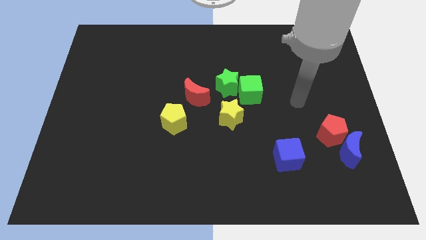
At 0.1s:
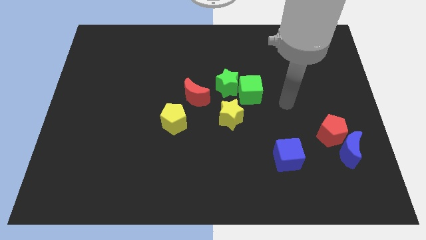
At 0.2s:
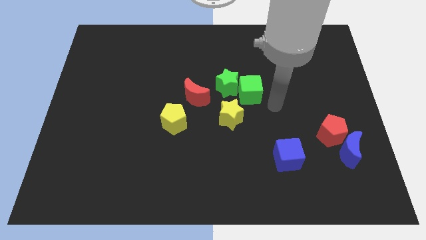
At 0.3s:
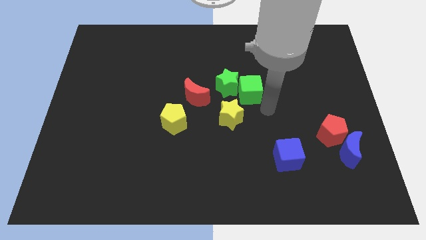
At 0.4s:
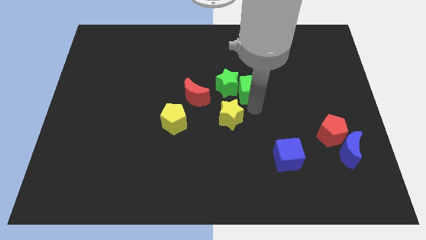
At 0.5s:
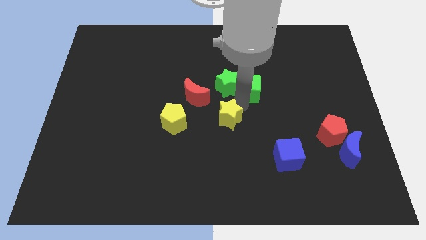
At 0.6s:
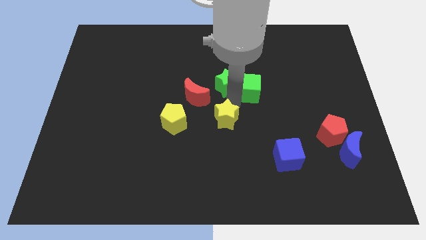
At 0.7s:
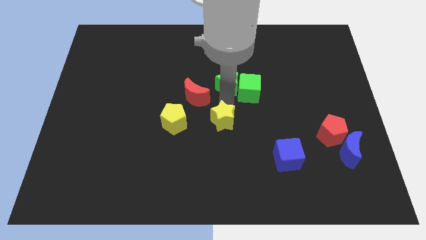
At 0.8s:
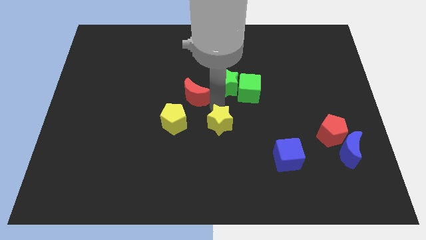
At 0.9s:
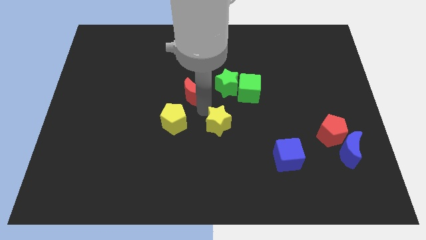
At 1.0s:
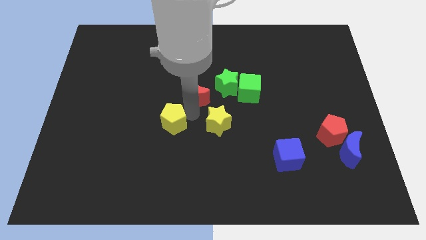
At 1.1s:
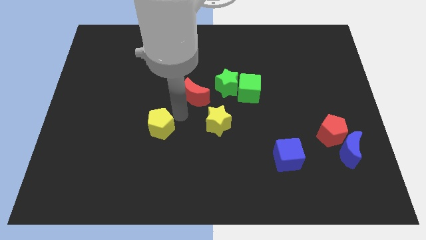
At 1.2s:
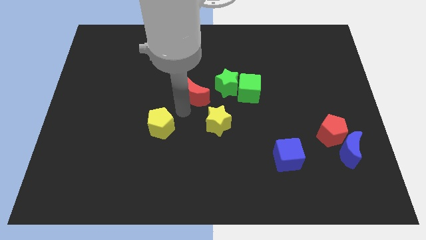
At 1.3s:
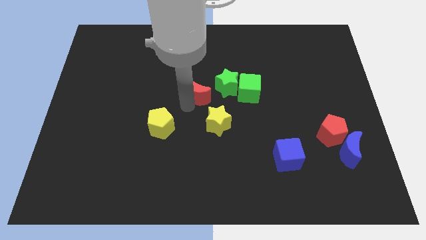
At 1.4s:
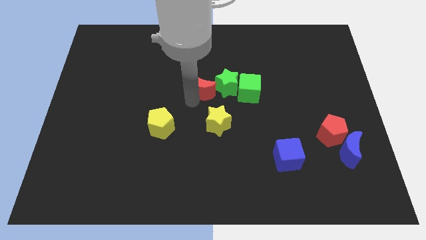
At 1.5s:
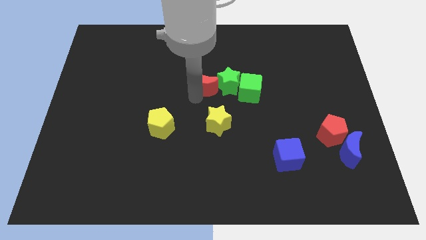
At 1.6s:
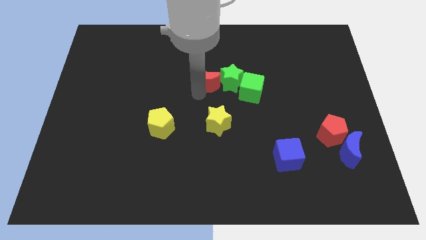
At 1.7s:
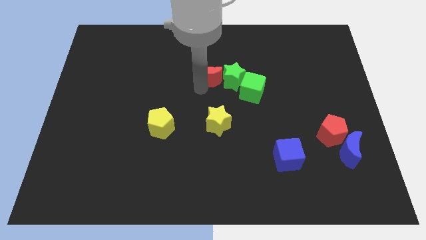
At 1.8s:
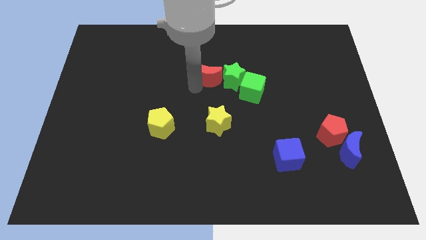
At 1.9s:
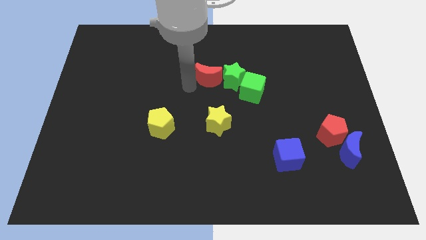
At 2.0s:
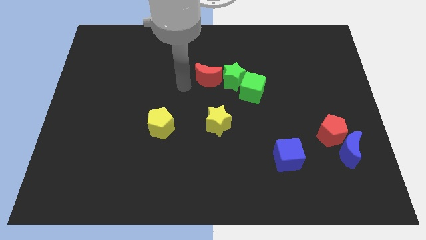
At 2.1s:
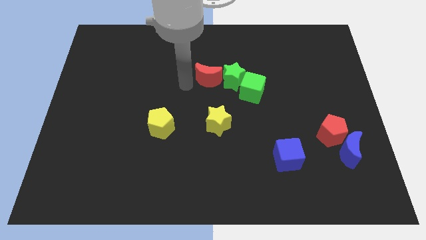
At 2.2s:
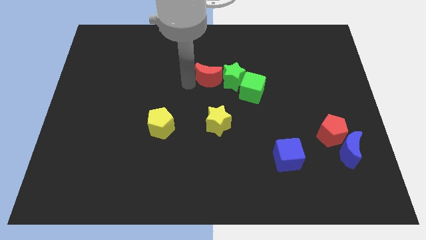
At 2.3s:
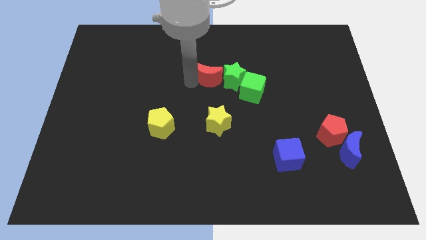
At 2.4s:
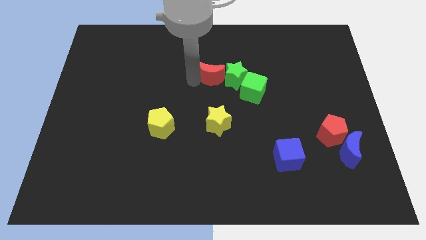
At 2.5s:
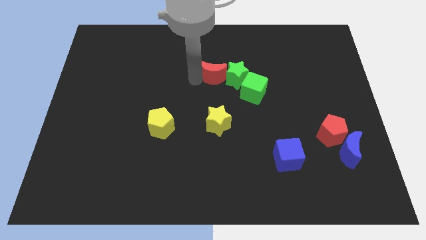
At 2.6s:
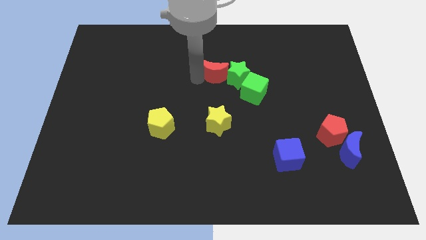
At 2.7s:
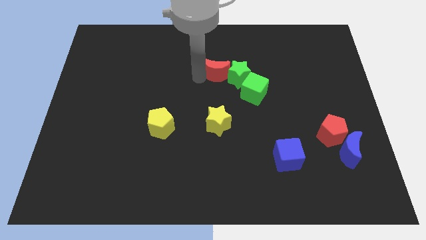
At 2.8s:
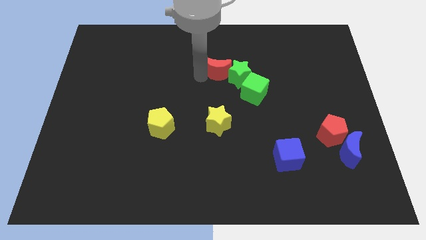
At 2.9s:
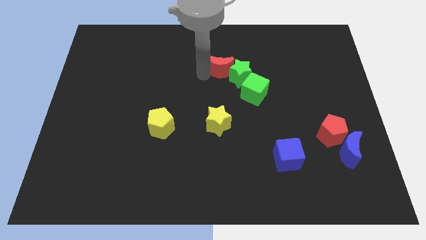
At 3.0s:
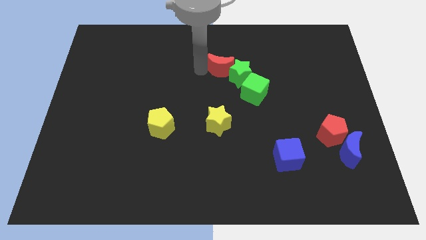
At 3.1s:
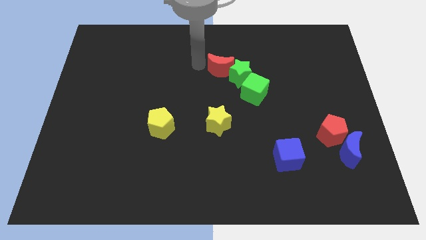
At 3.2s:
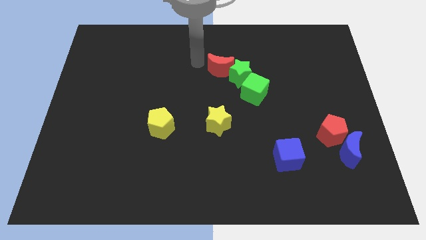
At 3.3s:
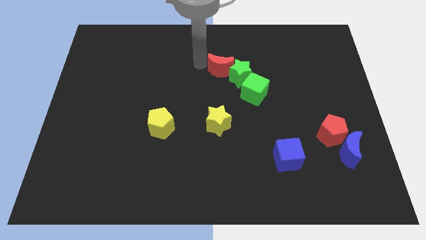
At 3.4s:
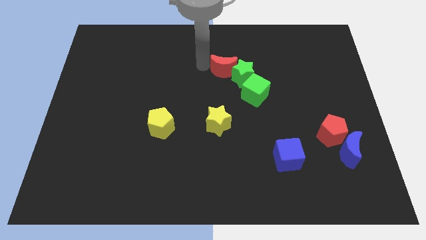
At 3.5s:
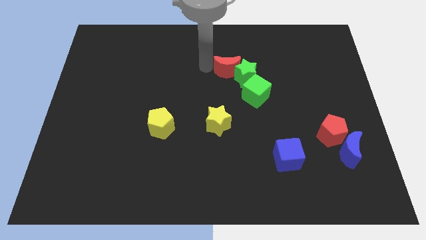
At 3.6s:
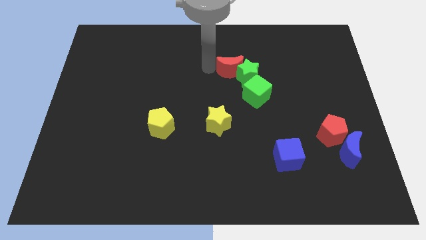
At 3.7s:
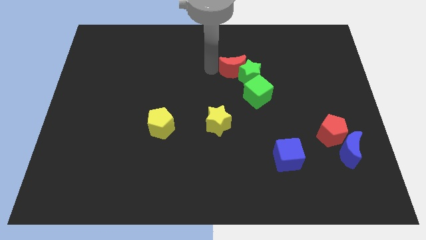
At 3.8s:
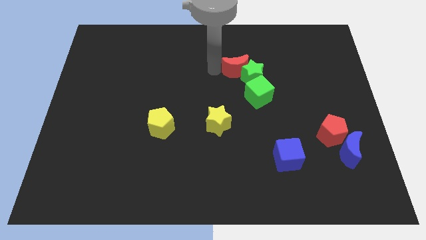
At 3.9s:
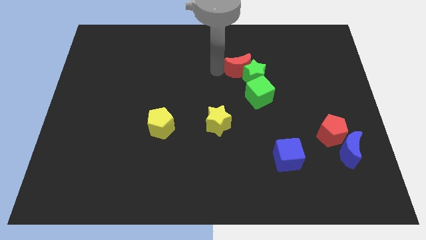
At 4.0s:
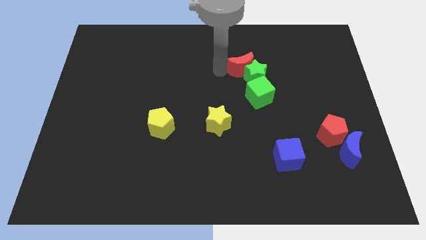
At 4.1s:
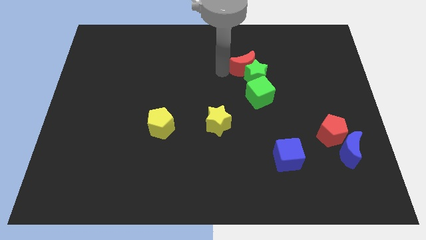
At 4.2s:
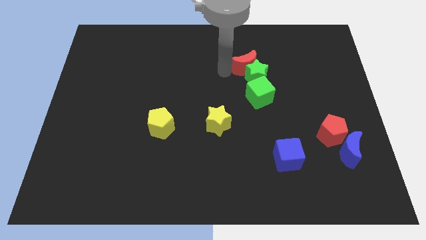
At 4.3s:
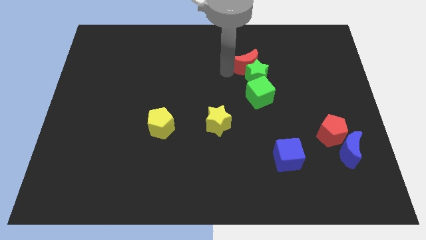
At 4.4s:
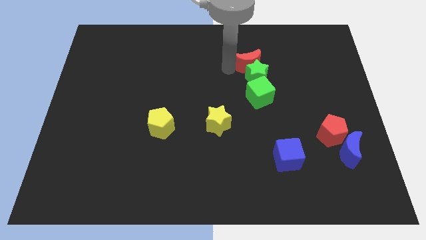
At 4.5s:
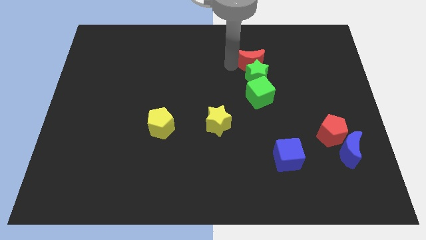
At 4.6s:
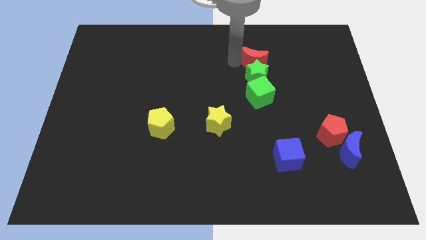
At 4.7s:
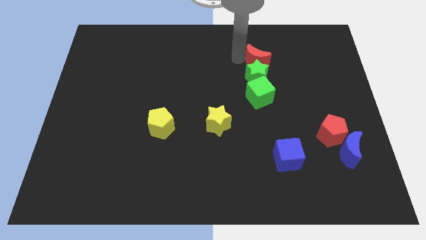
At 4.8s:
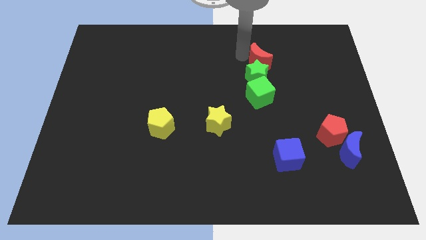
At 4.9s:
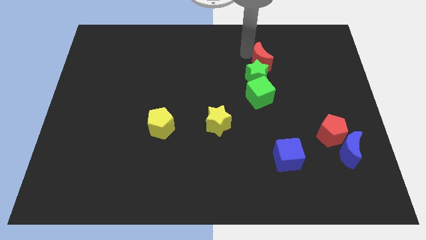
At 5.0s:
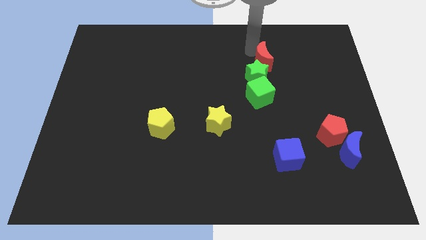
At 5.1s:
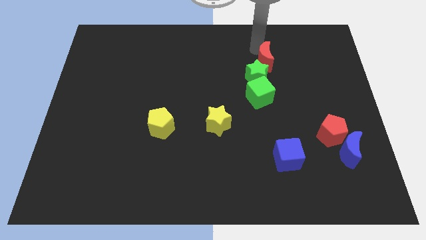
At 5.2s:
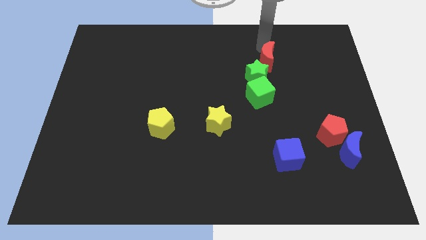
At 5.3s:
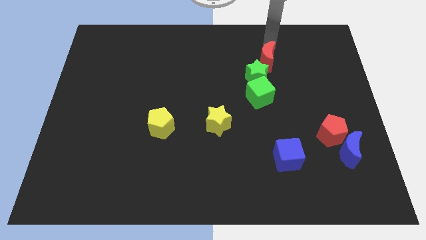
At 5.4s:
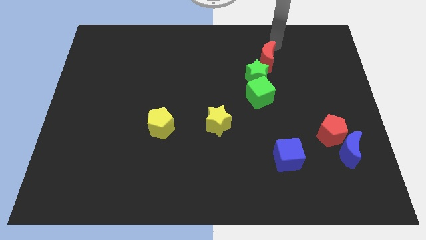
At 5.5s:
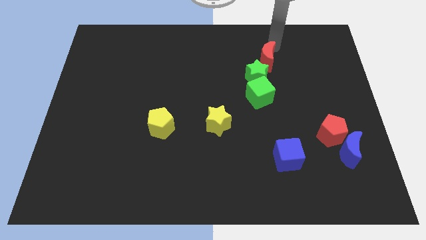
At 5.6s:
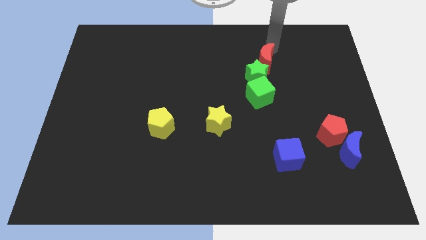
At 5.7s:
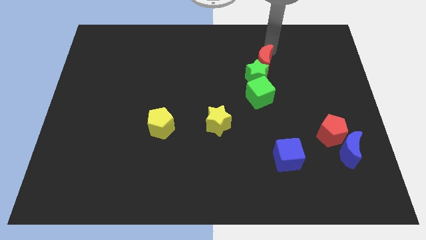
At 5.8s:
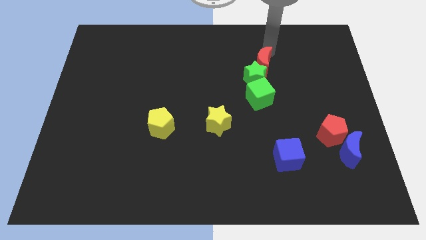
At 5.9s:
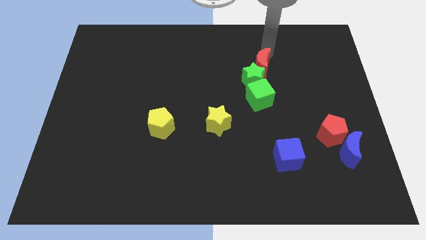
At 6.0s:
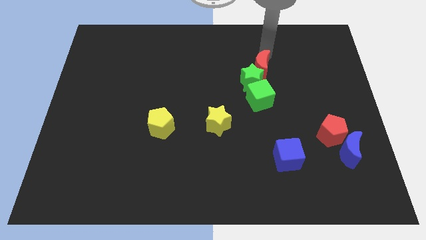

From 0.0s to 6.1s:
push the red moon right of the green star

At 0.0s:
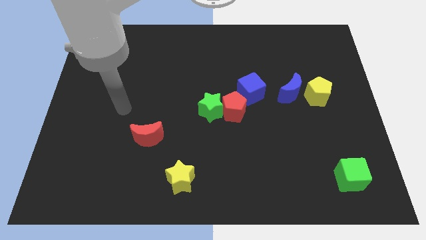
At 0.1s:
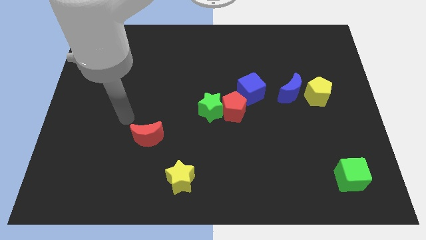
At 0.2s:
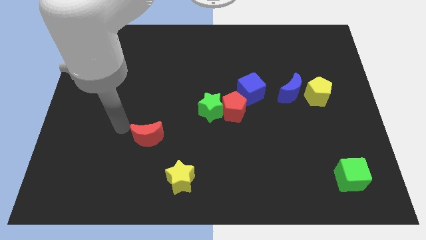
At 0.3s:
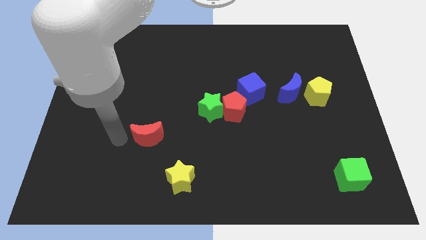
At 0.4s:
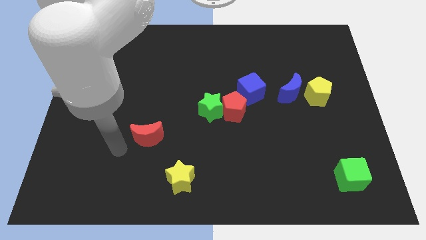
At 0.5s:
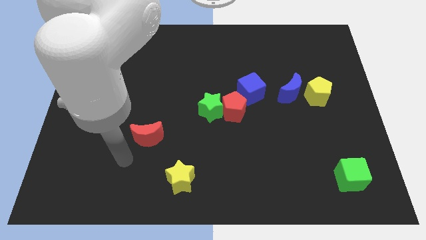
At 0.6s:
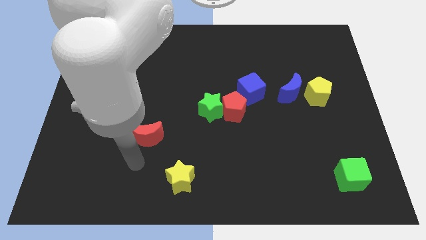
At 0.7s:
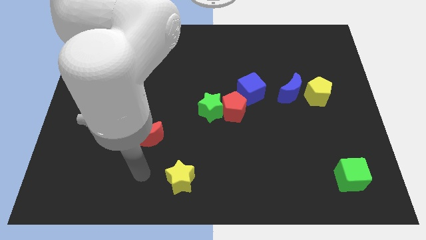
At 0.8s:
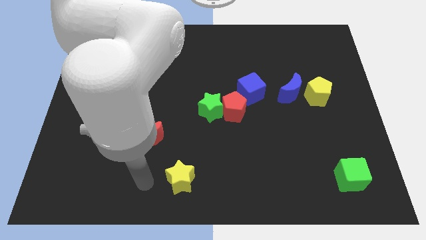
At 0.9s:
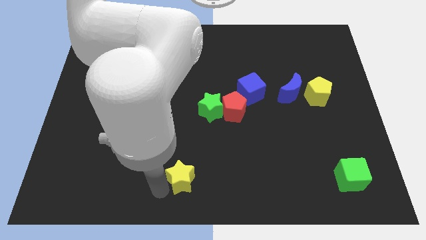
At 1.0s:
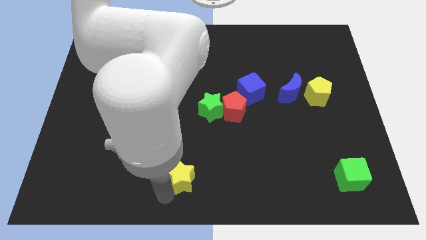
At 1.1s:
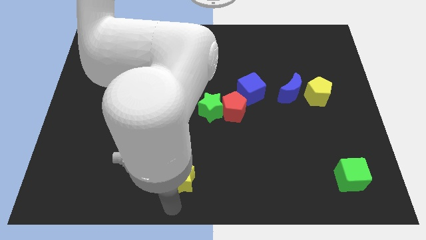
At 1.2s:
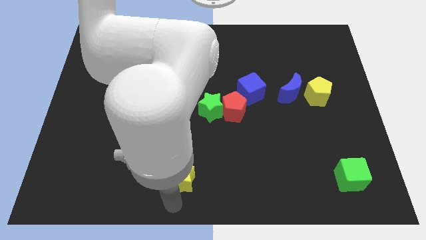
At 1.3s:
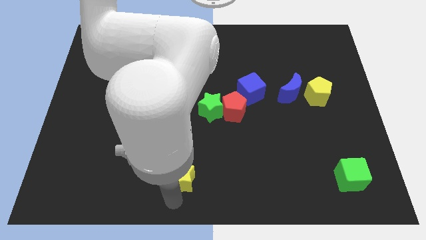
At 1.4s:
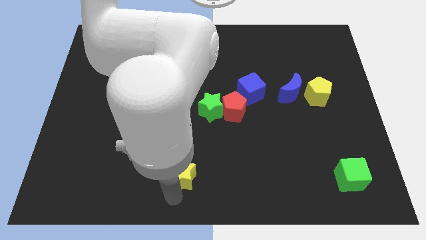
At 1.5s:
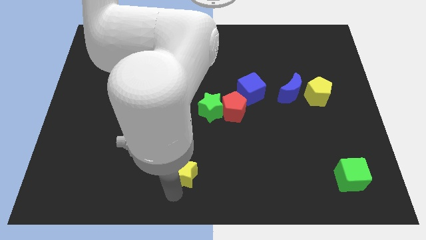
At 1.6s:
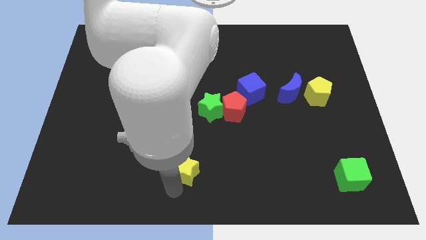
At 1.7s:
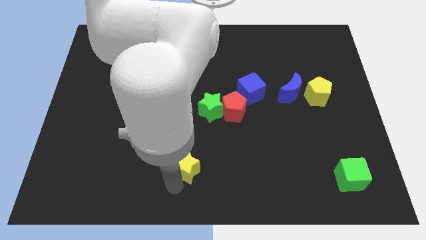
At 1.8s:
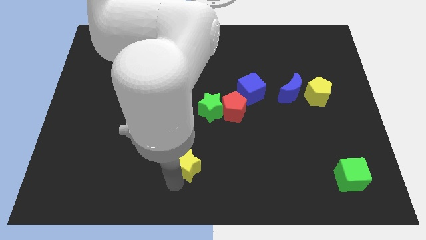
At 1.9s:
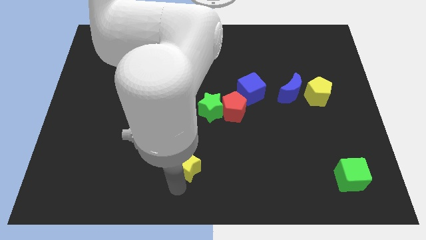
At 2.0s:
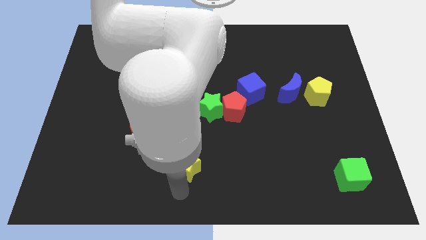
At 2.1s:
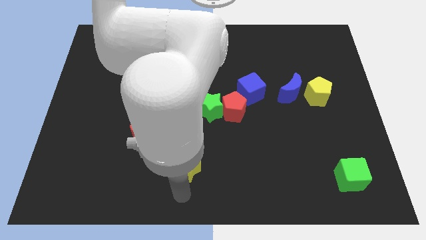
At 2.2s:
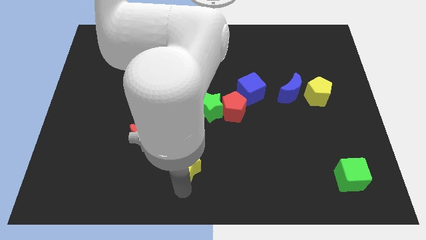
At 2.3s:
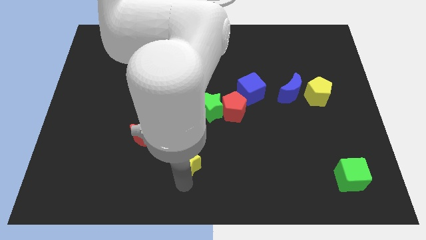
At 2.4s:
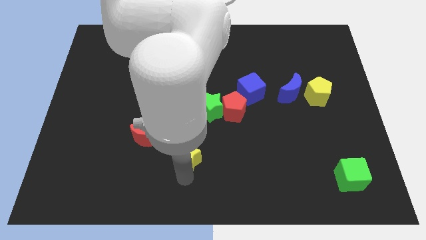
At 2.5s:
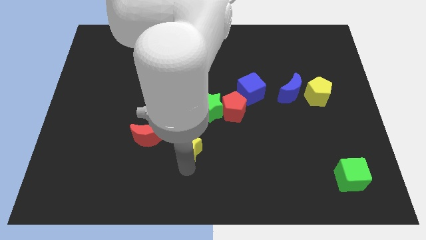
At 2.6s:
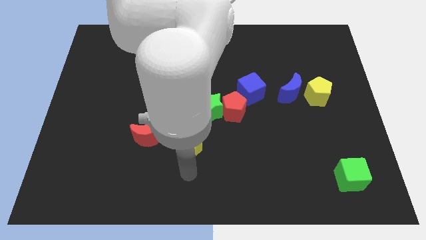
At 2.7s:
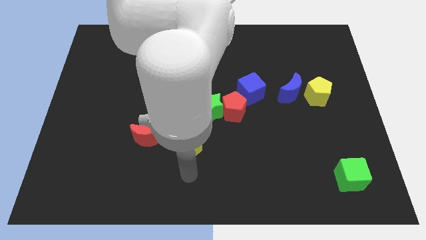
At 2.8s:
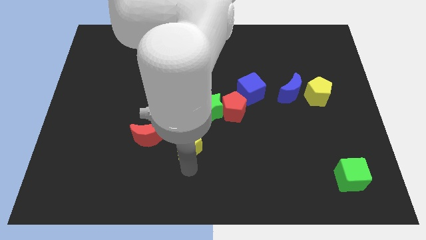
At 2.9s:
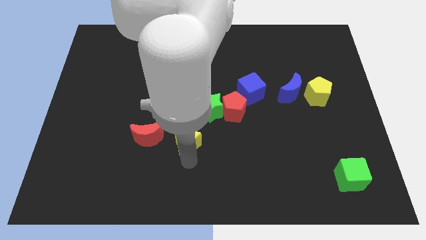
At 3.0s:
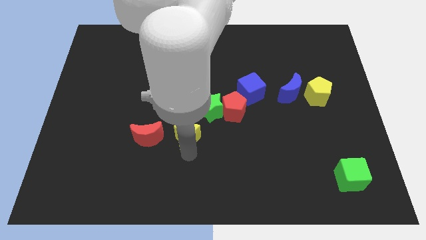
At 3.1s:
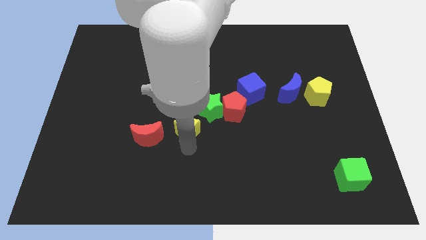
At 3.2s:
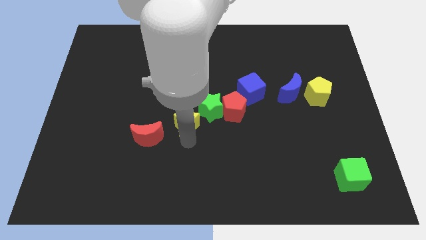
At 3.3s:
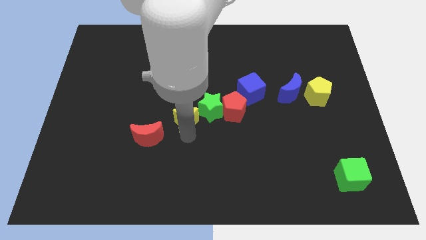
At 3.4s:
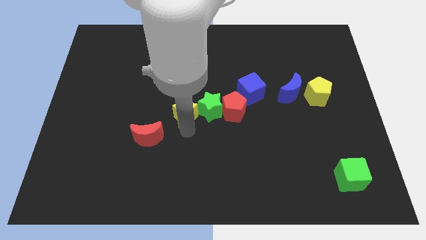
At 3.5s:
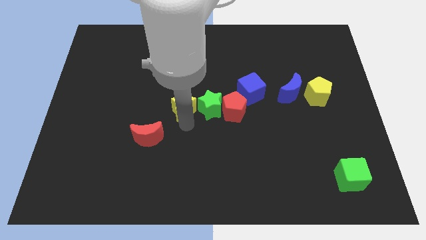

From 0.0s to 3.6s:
push the yellow star to the top left side of the green star
